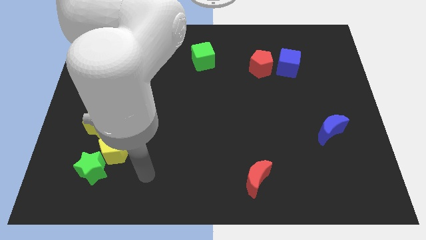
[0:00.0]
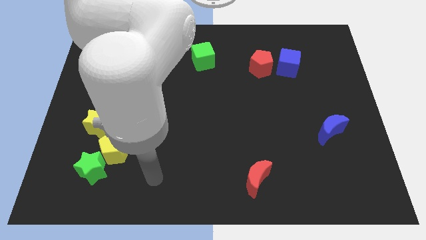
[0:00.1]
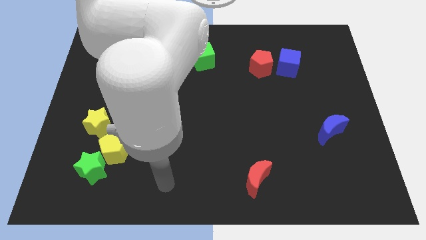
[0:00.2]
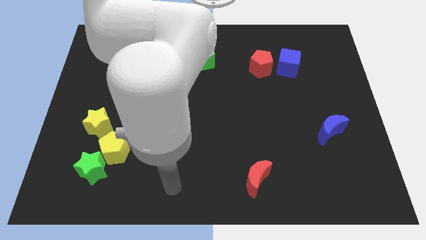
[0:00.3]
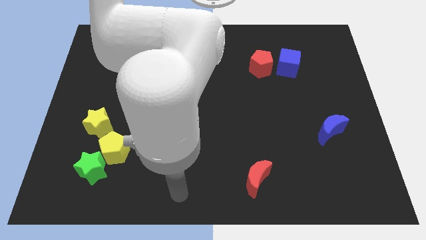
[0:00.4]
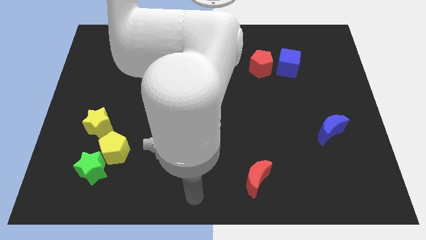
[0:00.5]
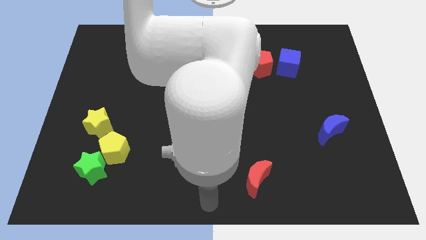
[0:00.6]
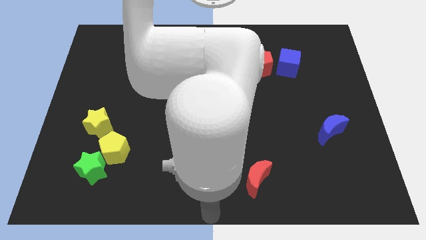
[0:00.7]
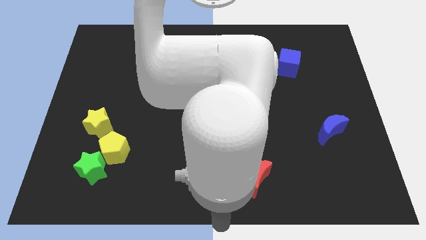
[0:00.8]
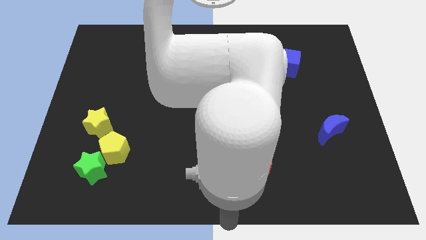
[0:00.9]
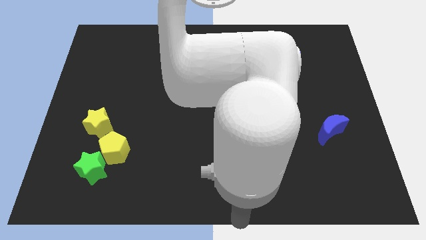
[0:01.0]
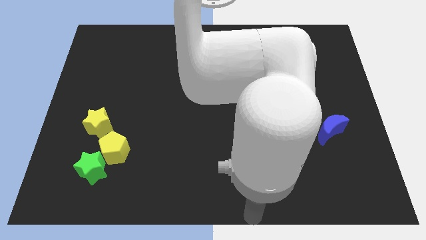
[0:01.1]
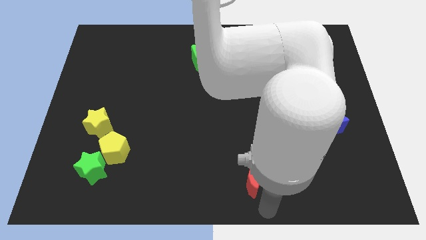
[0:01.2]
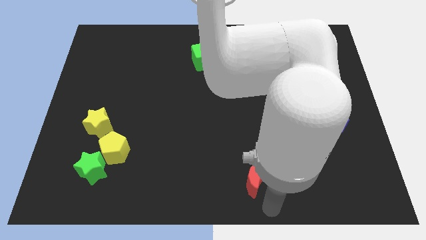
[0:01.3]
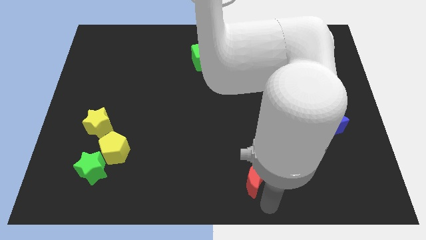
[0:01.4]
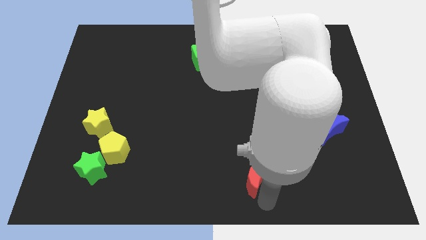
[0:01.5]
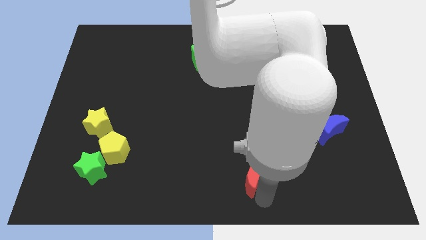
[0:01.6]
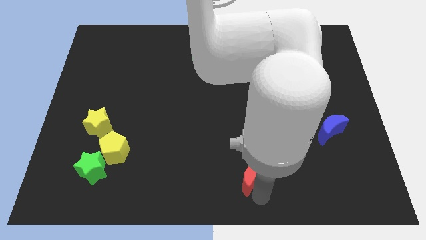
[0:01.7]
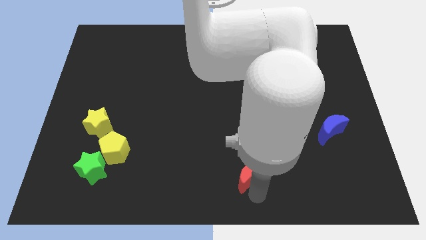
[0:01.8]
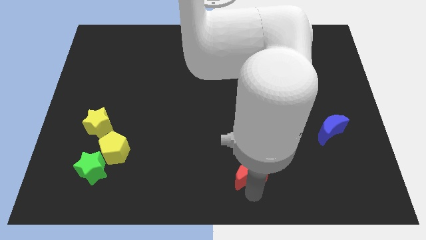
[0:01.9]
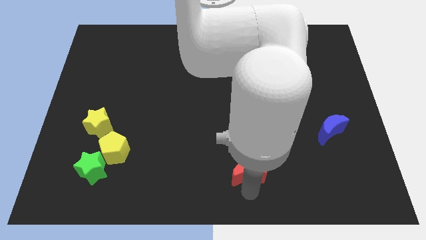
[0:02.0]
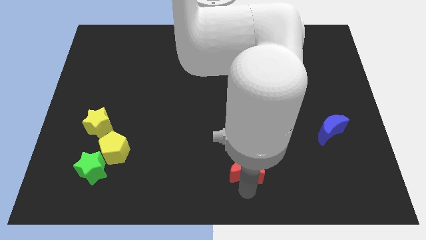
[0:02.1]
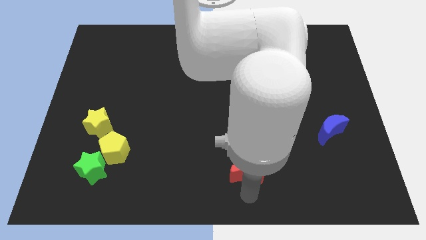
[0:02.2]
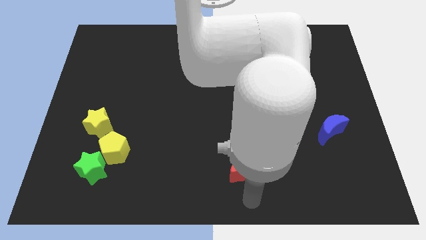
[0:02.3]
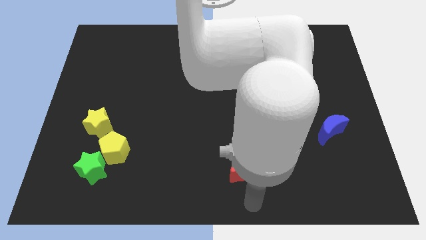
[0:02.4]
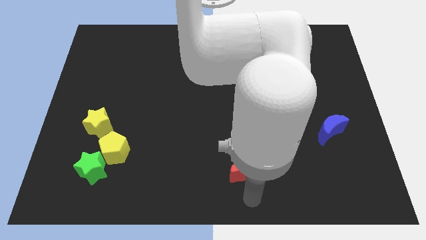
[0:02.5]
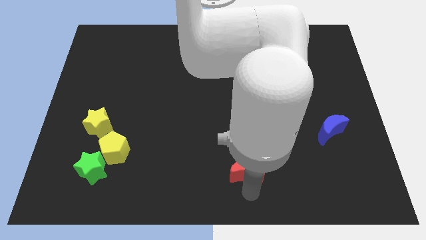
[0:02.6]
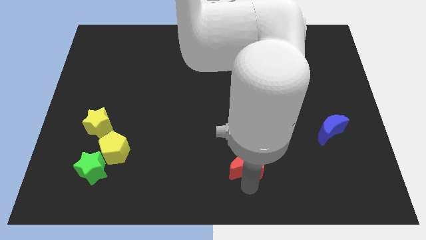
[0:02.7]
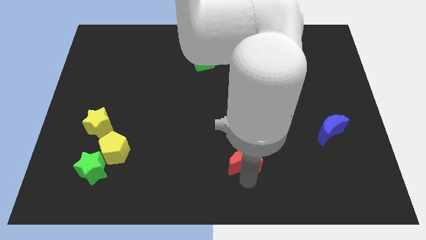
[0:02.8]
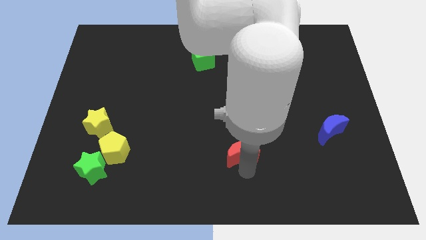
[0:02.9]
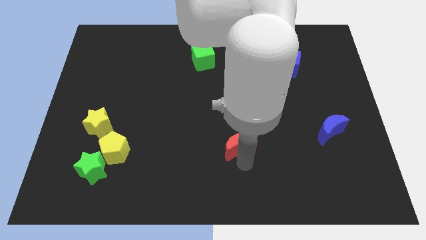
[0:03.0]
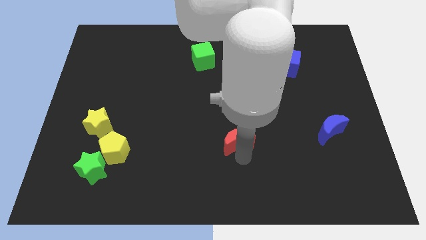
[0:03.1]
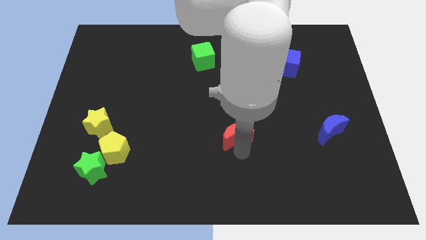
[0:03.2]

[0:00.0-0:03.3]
push the red moon to the center of the board

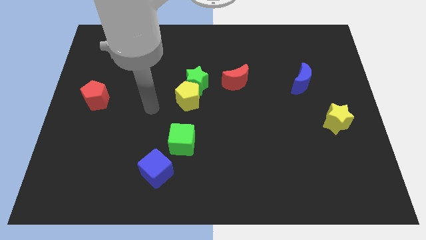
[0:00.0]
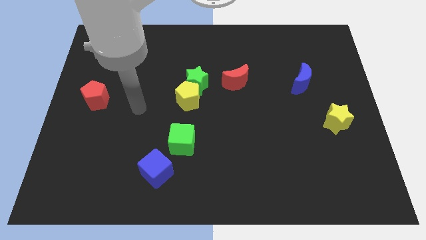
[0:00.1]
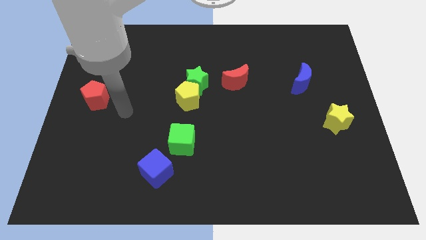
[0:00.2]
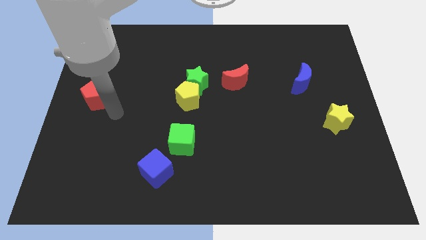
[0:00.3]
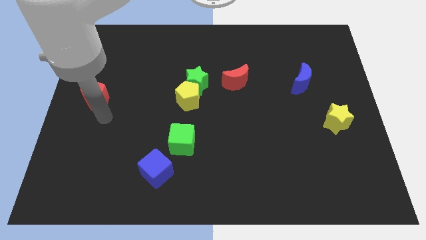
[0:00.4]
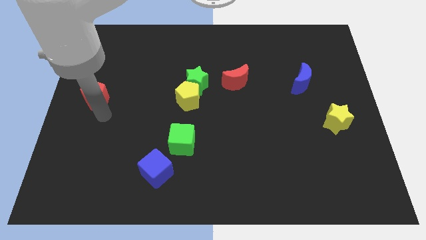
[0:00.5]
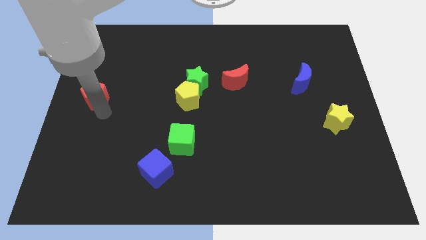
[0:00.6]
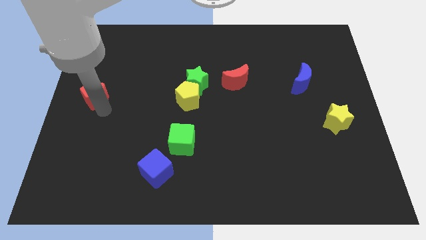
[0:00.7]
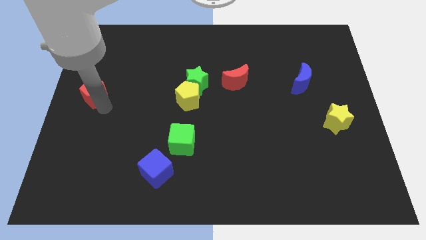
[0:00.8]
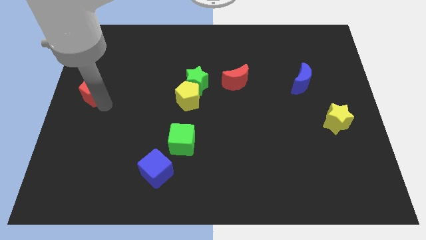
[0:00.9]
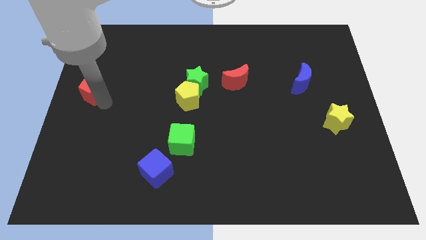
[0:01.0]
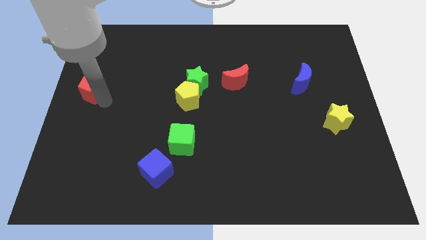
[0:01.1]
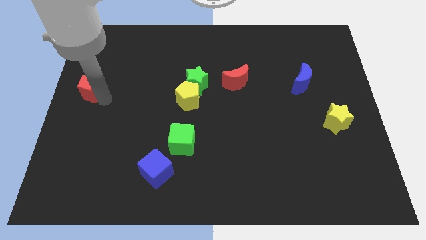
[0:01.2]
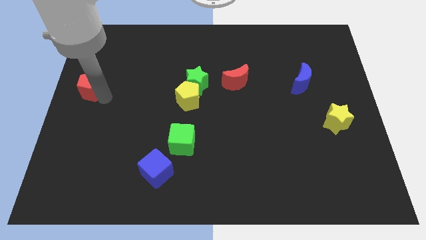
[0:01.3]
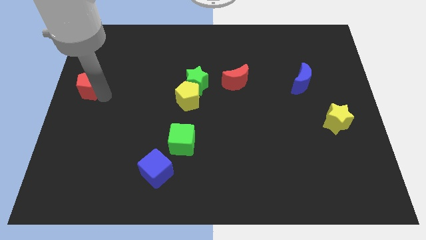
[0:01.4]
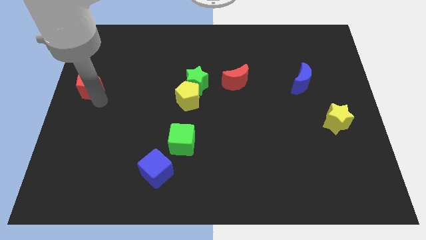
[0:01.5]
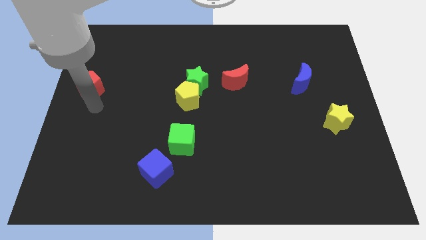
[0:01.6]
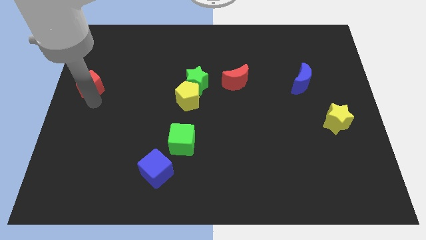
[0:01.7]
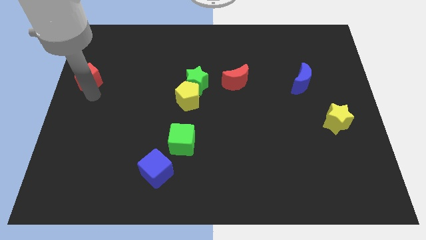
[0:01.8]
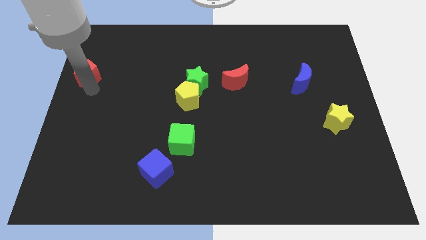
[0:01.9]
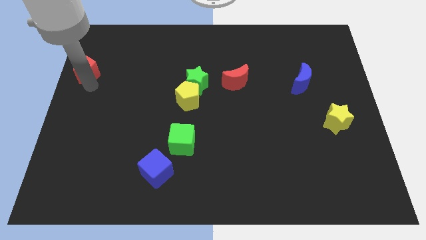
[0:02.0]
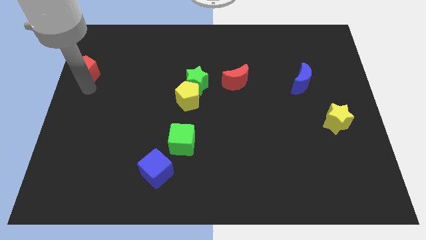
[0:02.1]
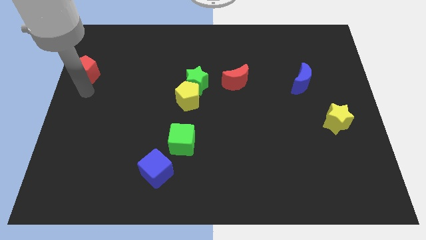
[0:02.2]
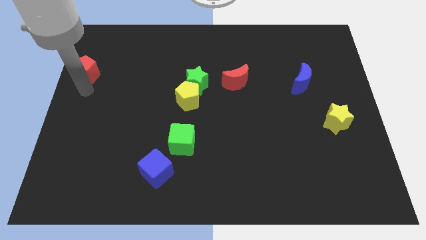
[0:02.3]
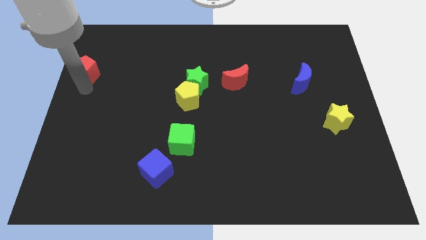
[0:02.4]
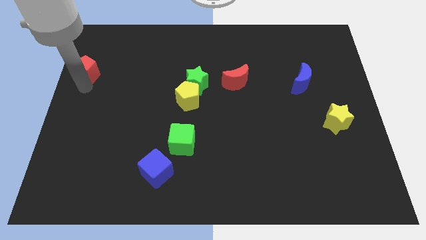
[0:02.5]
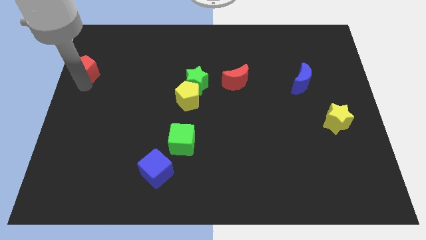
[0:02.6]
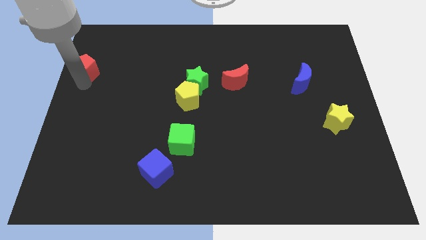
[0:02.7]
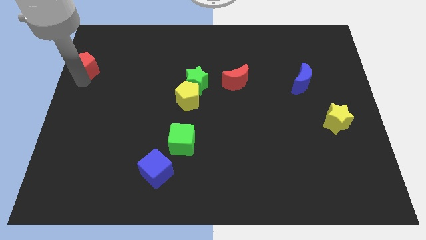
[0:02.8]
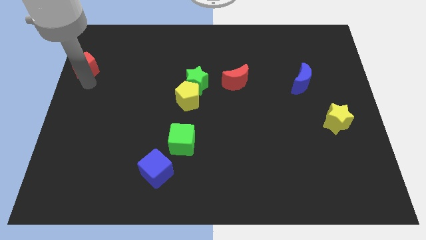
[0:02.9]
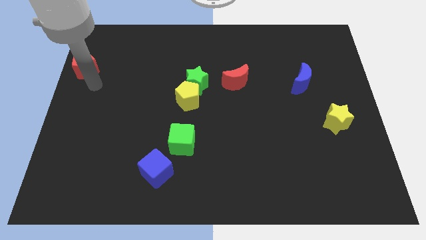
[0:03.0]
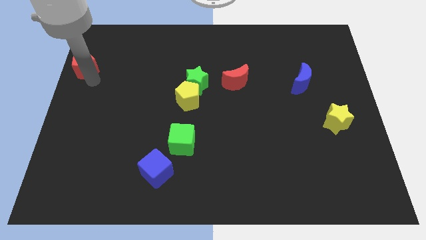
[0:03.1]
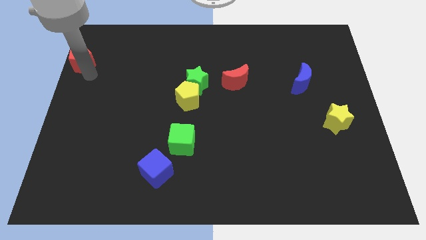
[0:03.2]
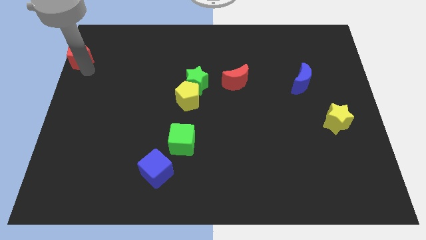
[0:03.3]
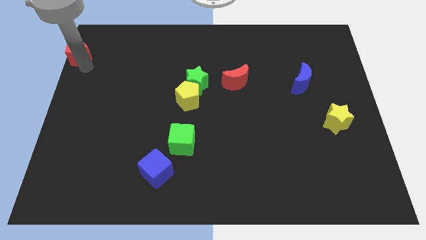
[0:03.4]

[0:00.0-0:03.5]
slide the red pentagon to the top left corner

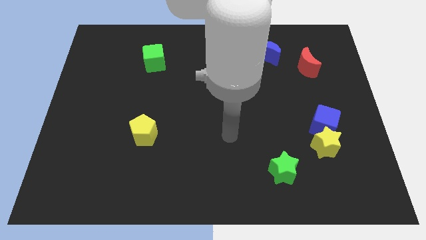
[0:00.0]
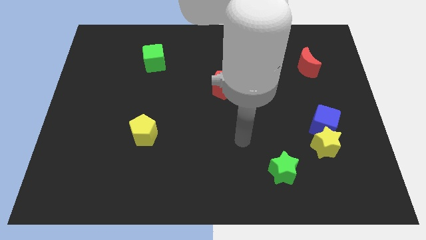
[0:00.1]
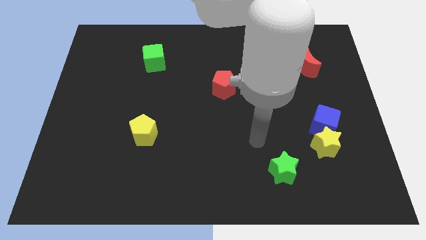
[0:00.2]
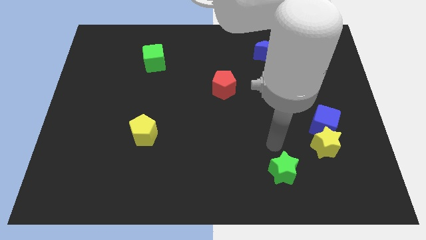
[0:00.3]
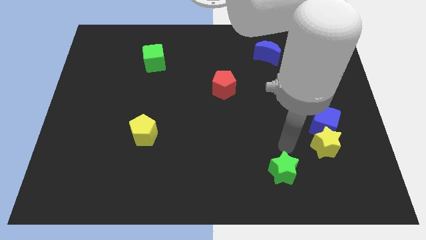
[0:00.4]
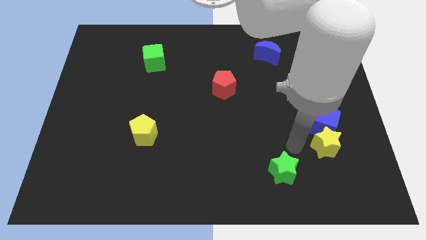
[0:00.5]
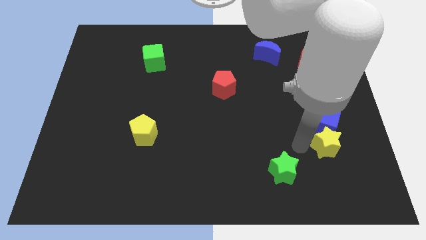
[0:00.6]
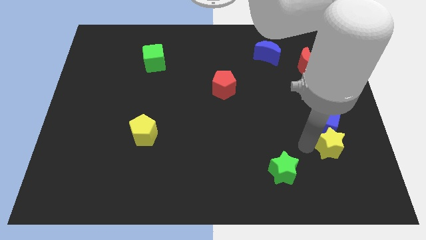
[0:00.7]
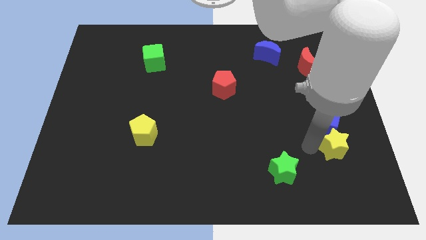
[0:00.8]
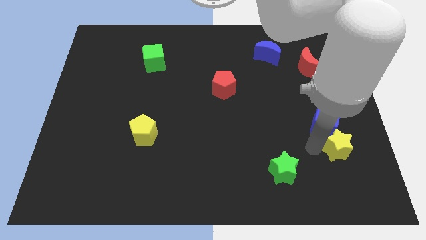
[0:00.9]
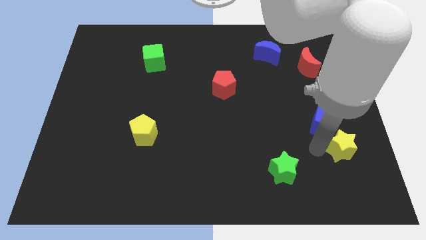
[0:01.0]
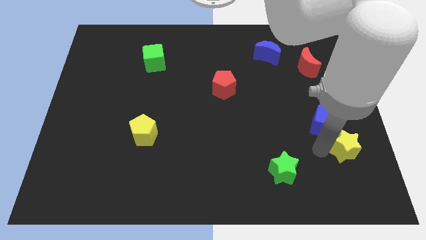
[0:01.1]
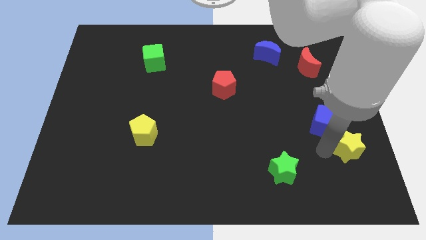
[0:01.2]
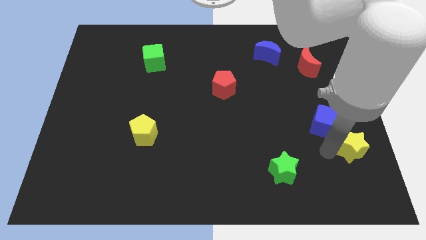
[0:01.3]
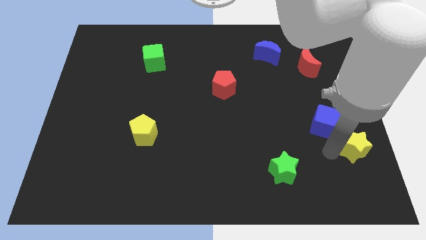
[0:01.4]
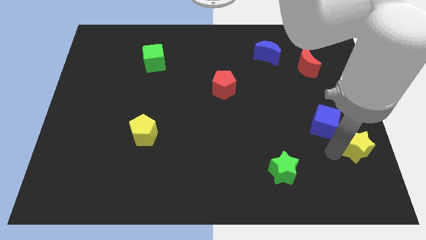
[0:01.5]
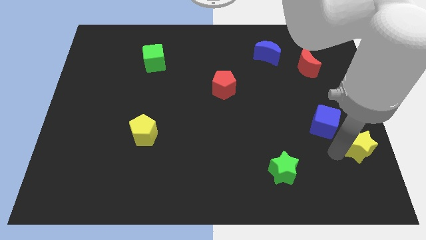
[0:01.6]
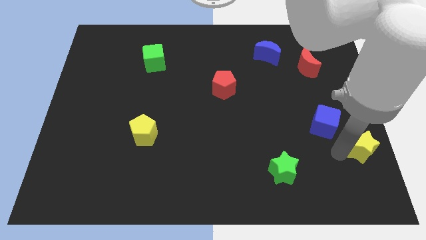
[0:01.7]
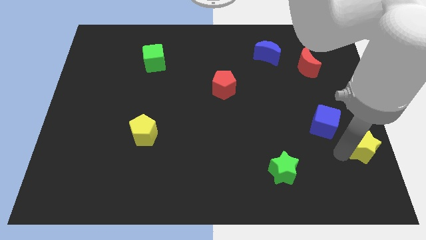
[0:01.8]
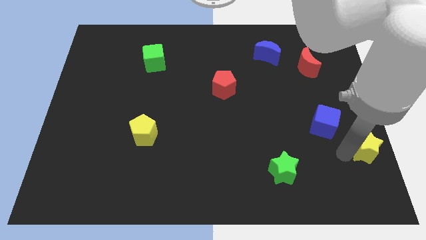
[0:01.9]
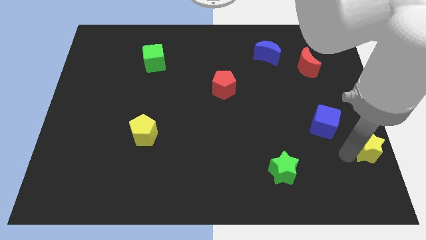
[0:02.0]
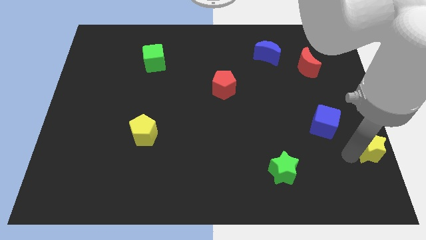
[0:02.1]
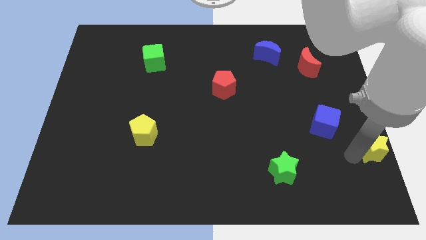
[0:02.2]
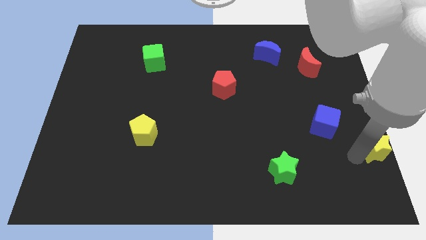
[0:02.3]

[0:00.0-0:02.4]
slide the yellow star to the center right
